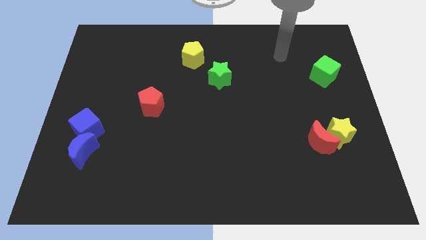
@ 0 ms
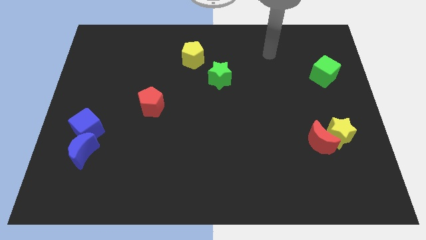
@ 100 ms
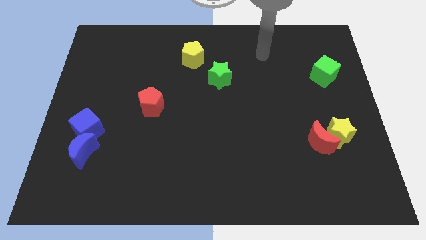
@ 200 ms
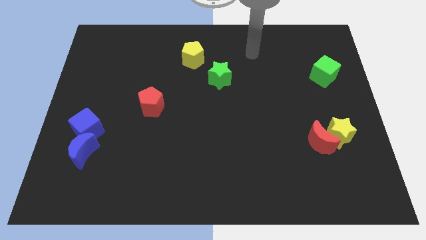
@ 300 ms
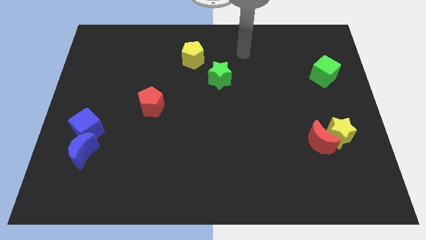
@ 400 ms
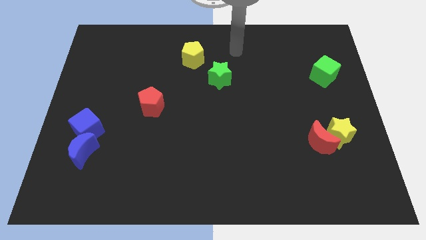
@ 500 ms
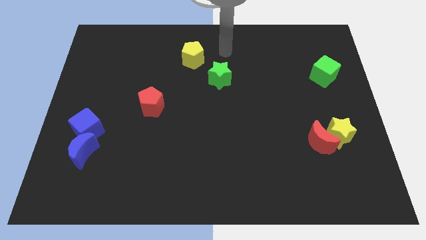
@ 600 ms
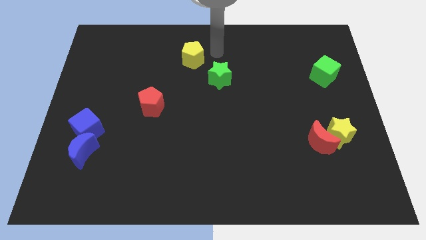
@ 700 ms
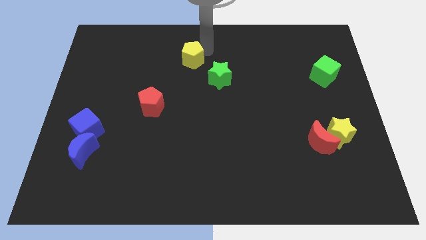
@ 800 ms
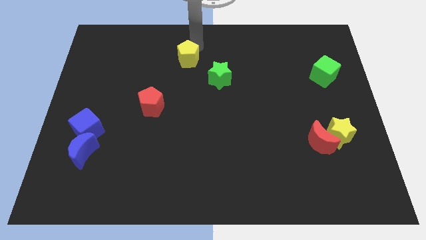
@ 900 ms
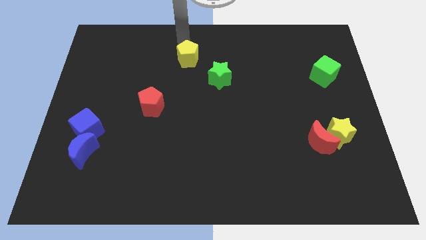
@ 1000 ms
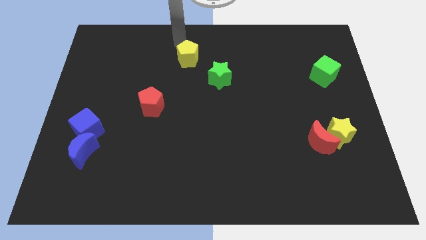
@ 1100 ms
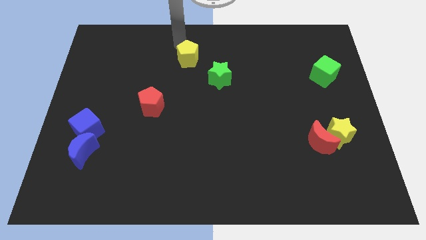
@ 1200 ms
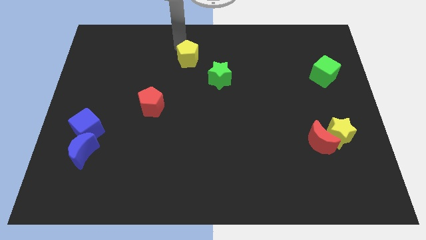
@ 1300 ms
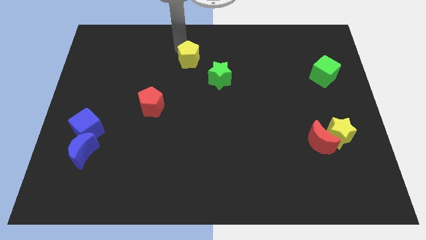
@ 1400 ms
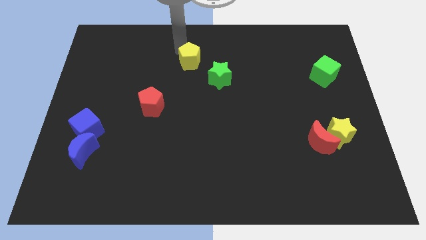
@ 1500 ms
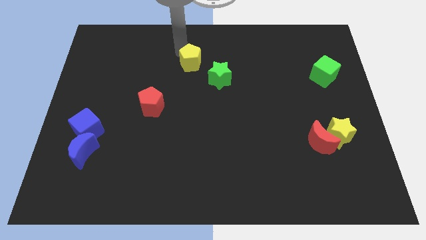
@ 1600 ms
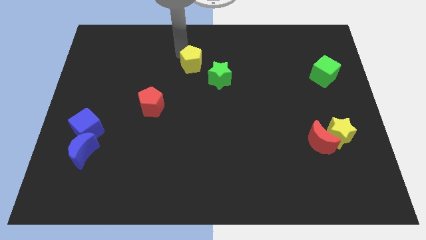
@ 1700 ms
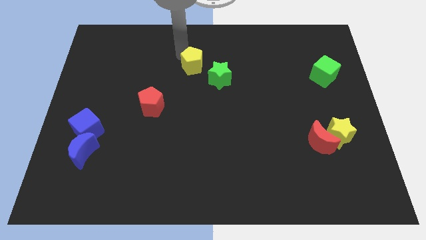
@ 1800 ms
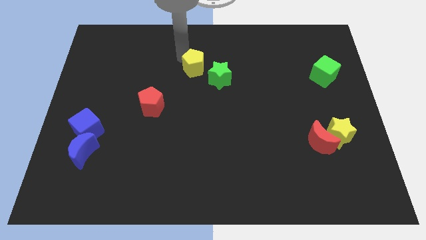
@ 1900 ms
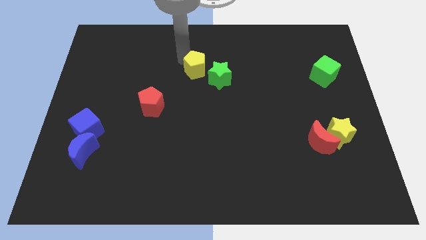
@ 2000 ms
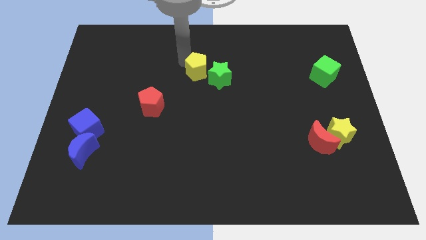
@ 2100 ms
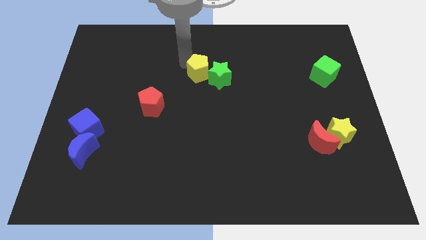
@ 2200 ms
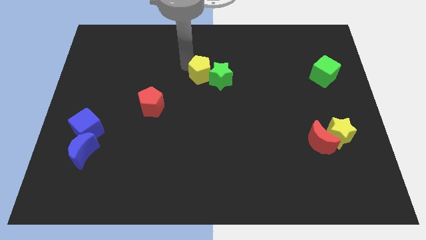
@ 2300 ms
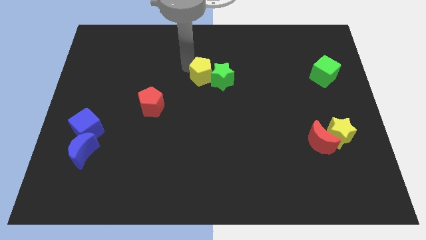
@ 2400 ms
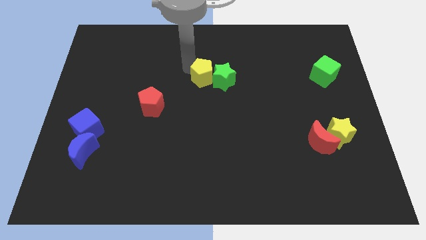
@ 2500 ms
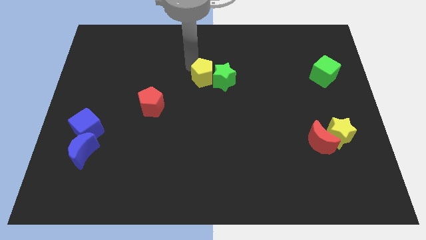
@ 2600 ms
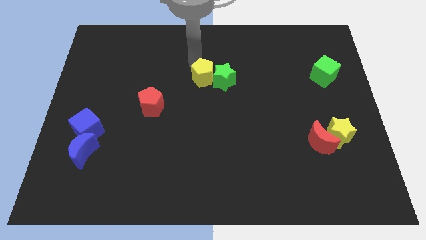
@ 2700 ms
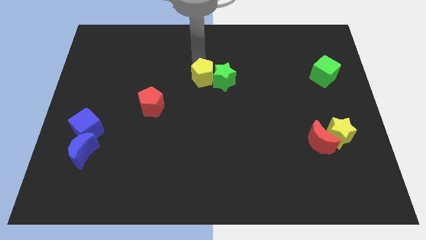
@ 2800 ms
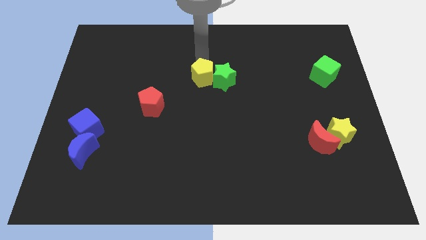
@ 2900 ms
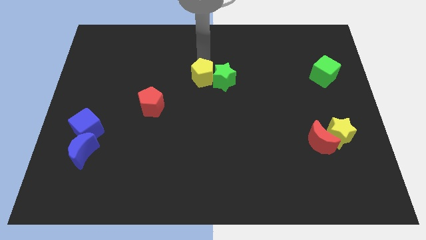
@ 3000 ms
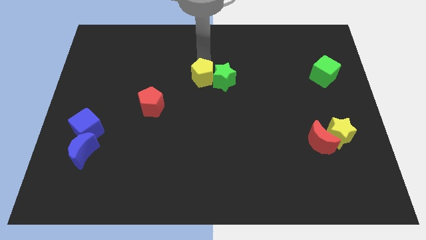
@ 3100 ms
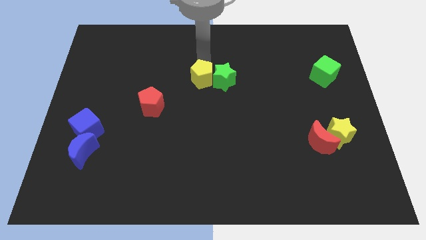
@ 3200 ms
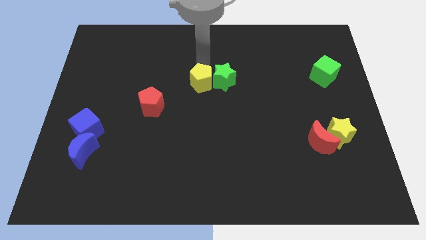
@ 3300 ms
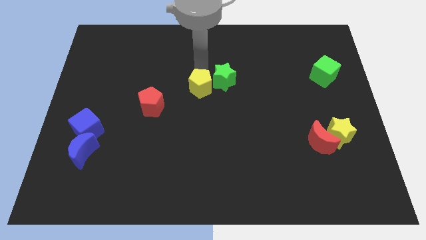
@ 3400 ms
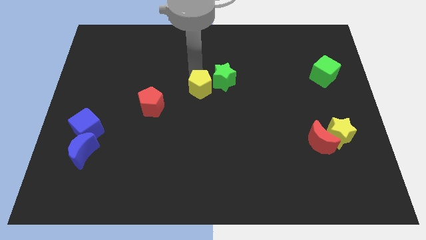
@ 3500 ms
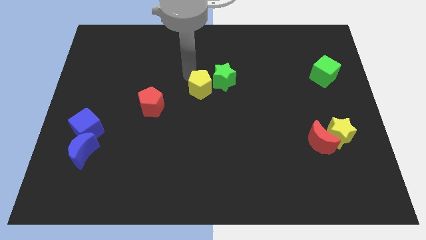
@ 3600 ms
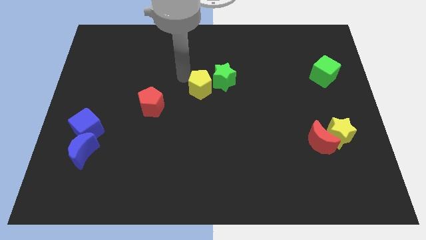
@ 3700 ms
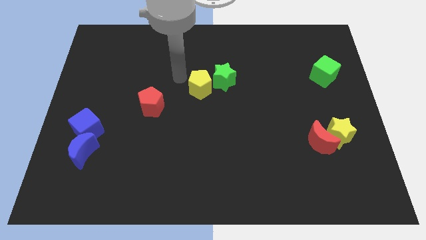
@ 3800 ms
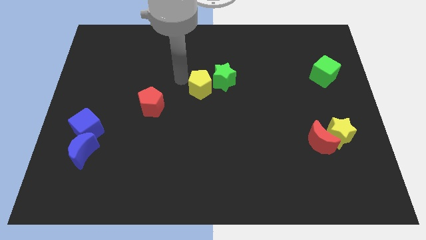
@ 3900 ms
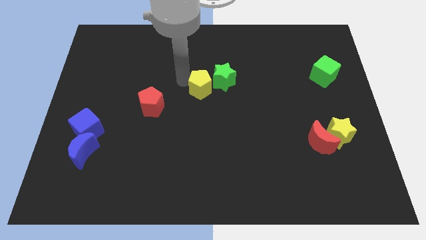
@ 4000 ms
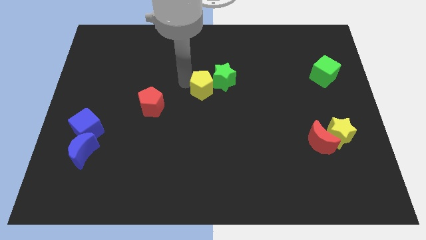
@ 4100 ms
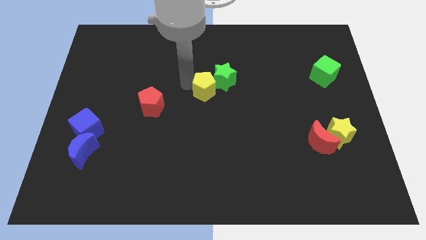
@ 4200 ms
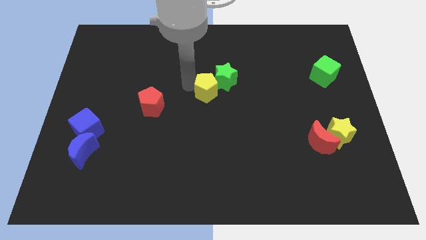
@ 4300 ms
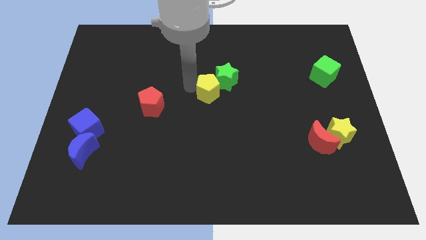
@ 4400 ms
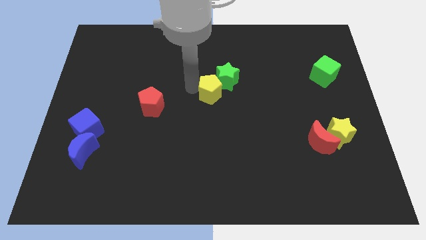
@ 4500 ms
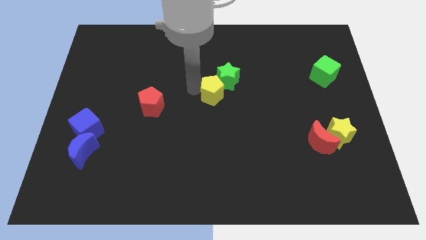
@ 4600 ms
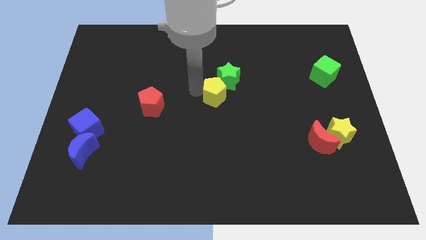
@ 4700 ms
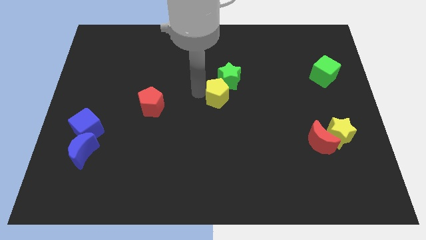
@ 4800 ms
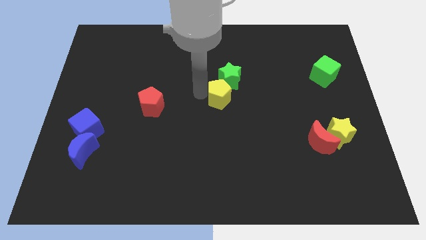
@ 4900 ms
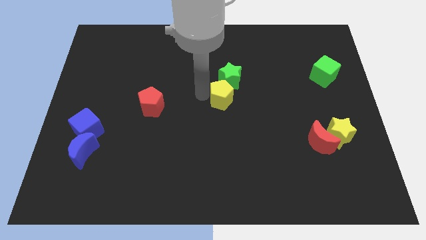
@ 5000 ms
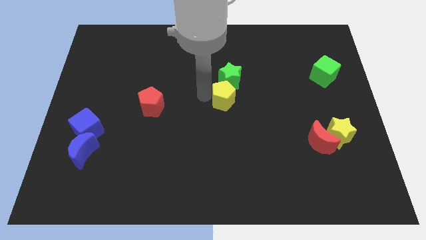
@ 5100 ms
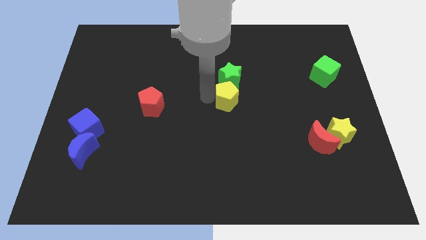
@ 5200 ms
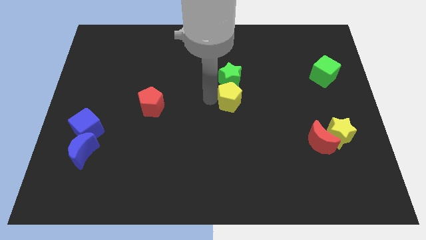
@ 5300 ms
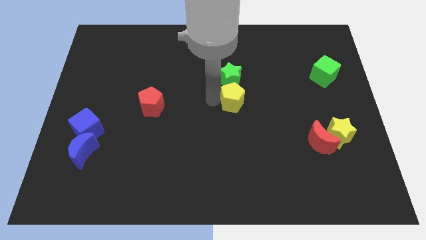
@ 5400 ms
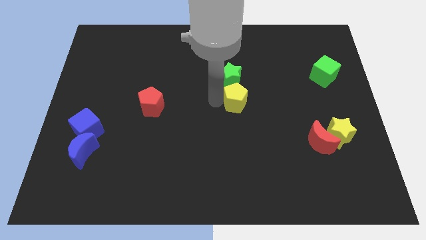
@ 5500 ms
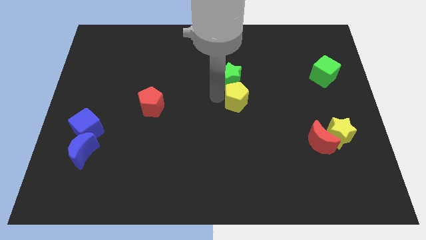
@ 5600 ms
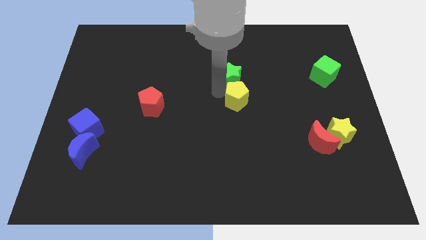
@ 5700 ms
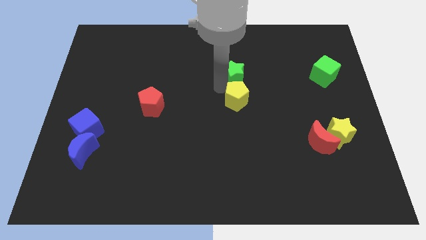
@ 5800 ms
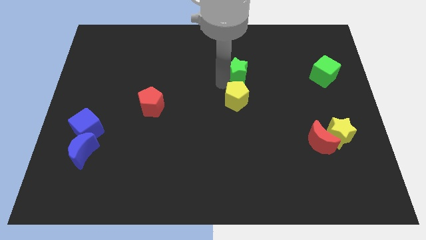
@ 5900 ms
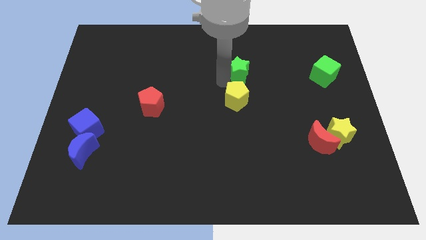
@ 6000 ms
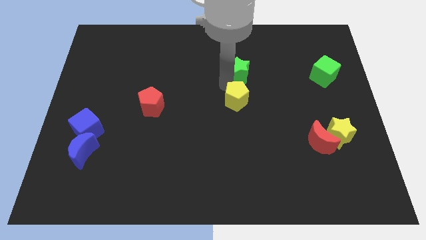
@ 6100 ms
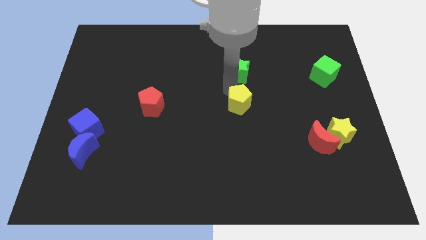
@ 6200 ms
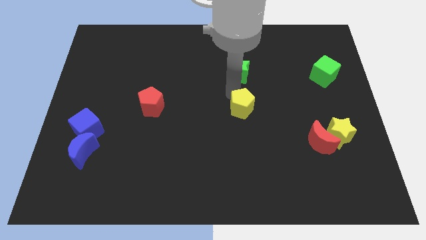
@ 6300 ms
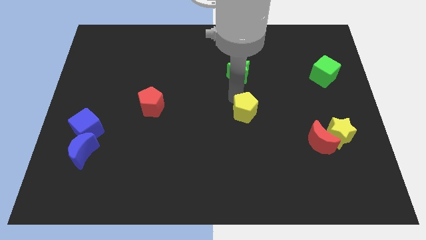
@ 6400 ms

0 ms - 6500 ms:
move the yellow pentagon down and to the right diagonally

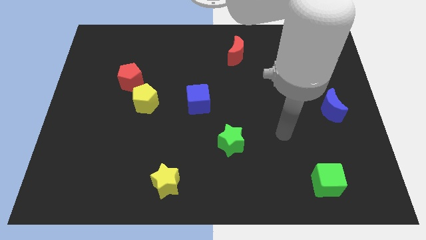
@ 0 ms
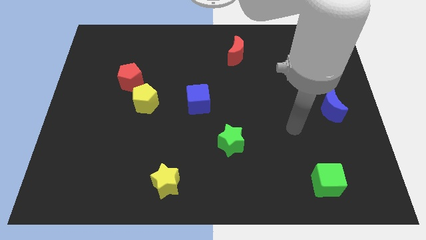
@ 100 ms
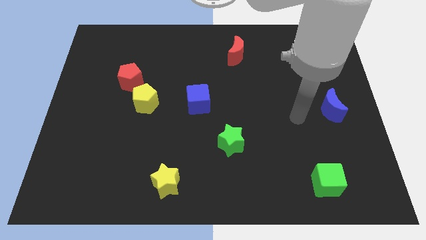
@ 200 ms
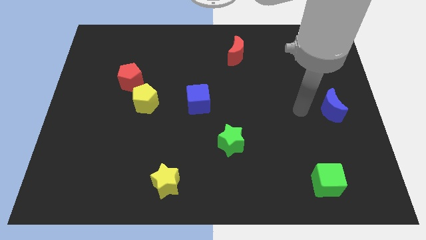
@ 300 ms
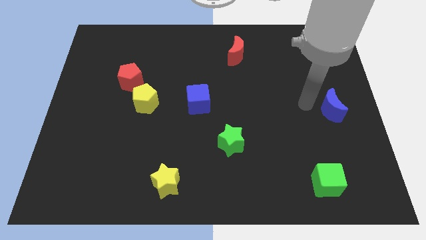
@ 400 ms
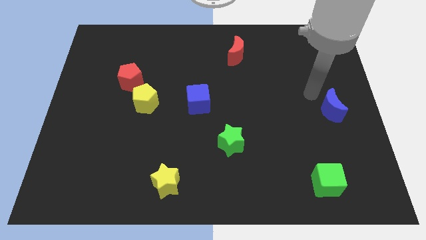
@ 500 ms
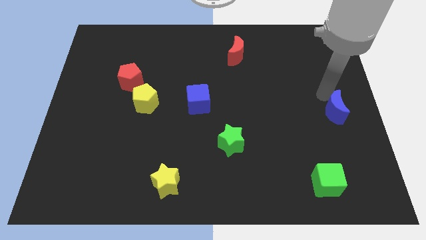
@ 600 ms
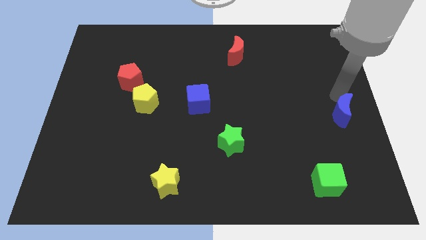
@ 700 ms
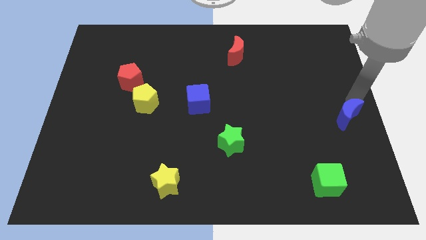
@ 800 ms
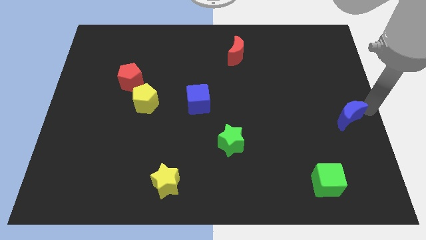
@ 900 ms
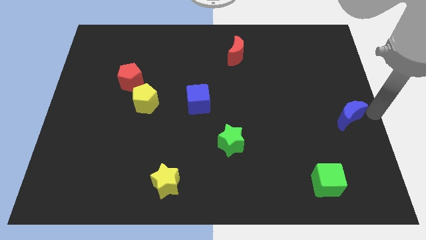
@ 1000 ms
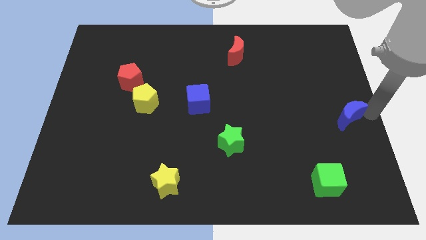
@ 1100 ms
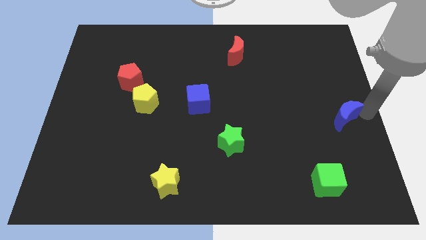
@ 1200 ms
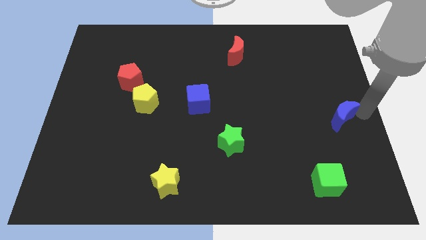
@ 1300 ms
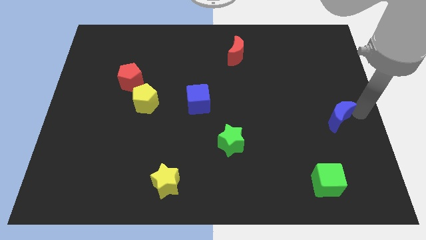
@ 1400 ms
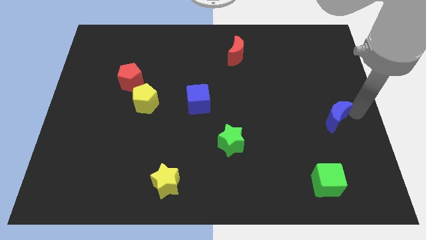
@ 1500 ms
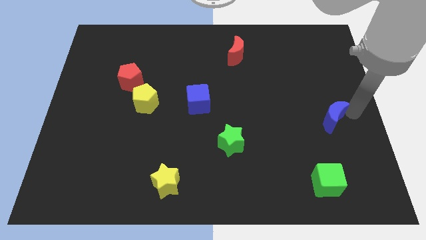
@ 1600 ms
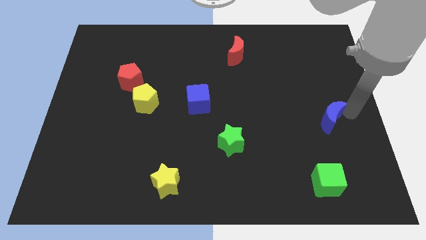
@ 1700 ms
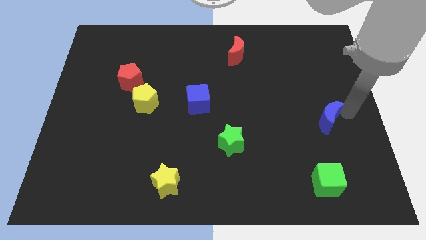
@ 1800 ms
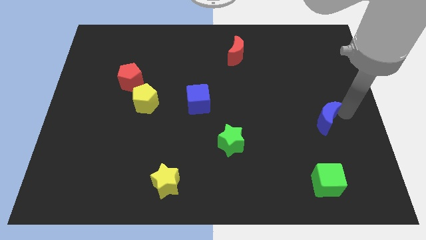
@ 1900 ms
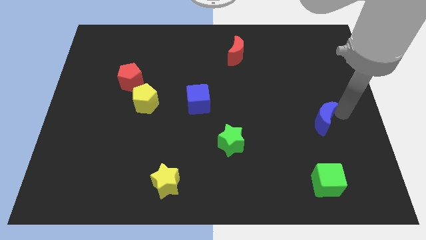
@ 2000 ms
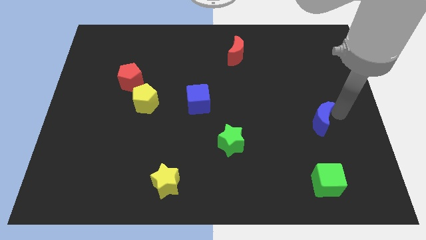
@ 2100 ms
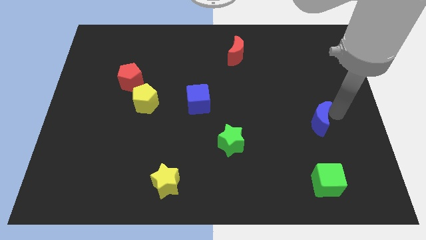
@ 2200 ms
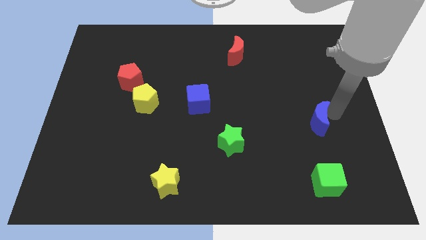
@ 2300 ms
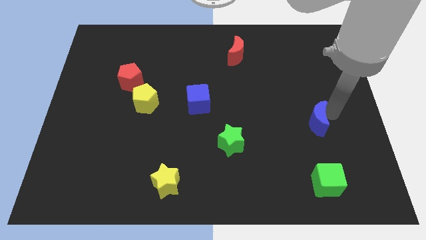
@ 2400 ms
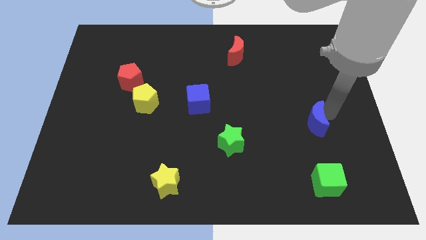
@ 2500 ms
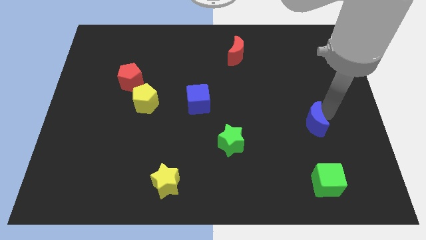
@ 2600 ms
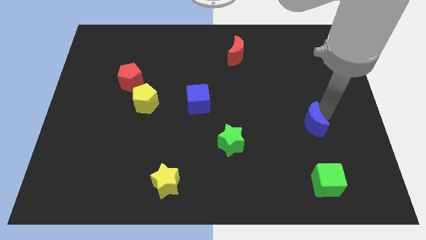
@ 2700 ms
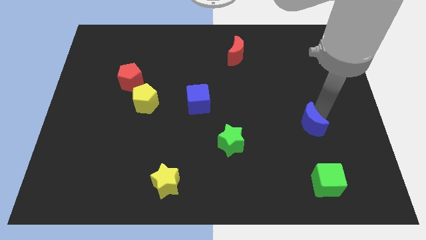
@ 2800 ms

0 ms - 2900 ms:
slightly slide the blue moon downwards and then to the left
